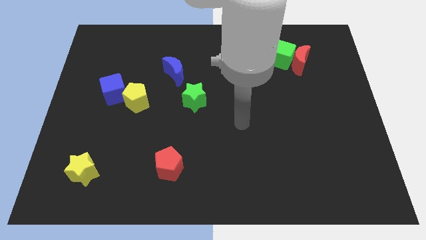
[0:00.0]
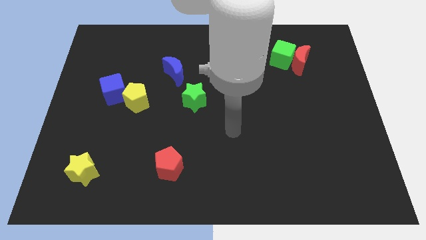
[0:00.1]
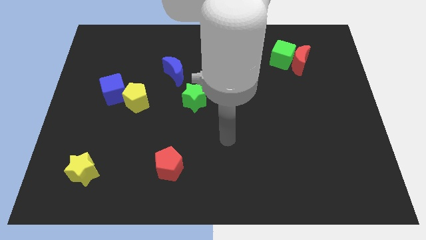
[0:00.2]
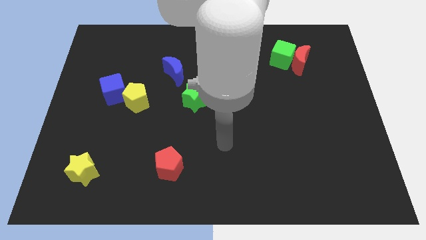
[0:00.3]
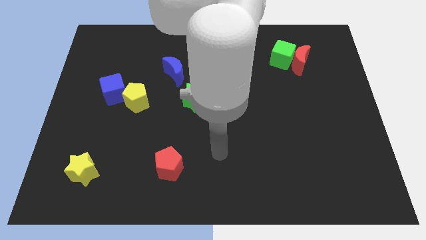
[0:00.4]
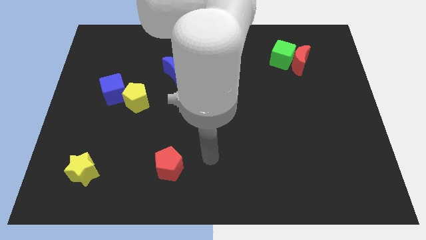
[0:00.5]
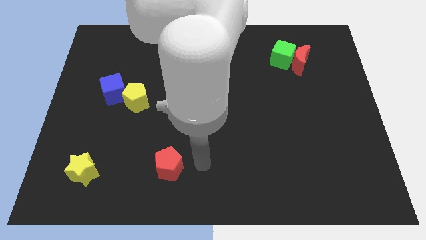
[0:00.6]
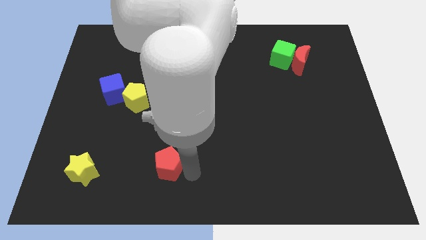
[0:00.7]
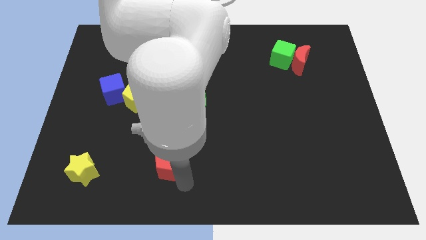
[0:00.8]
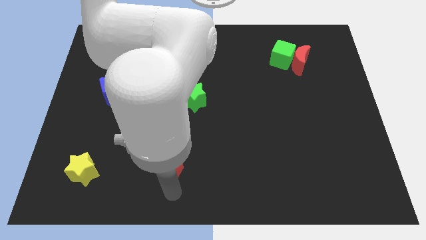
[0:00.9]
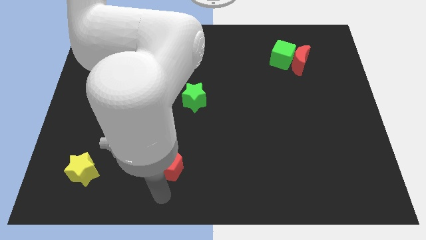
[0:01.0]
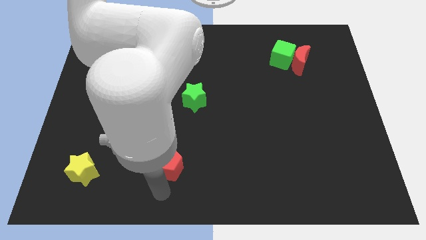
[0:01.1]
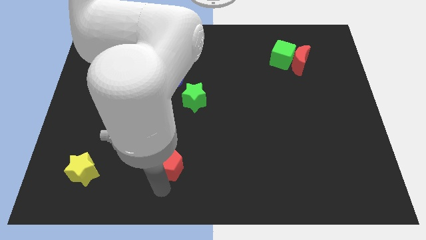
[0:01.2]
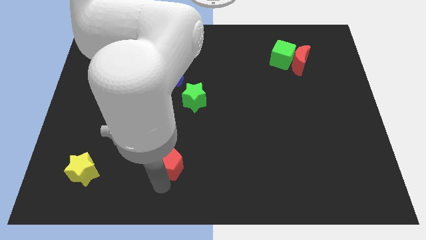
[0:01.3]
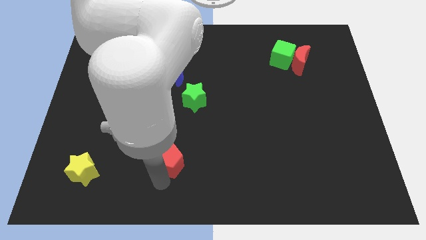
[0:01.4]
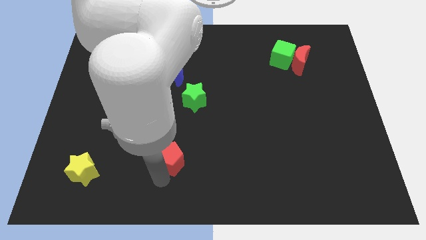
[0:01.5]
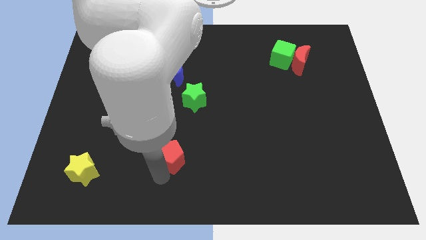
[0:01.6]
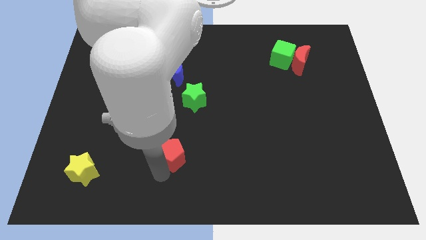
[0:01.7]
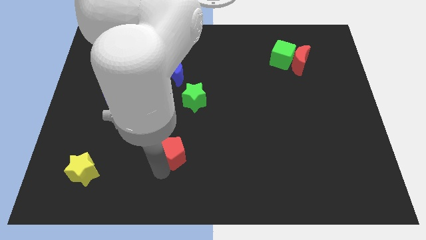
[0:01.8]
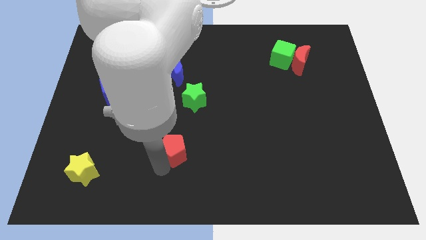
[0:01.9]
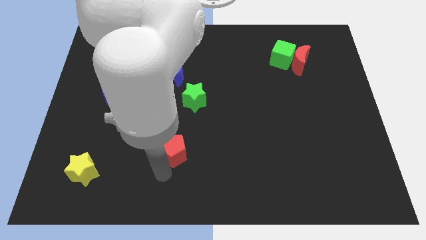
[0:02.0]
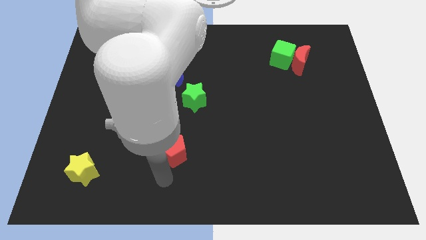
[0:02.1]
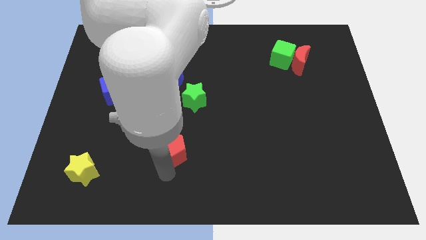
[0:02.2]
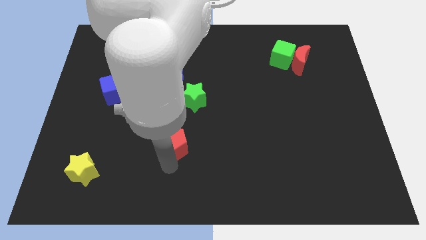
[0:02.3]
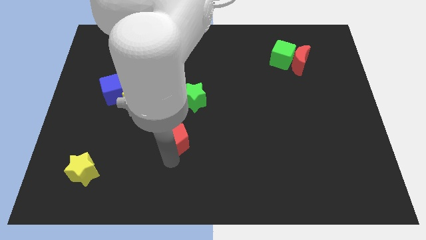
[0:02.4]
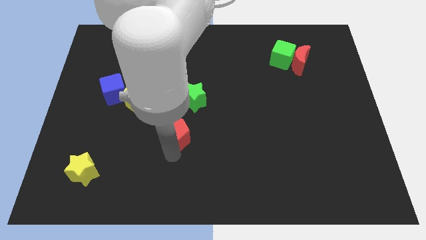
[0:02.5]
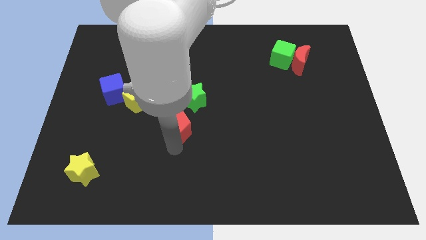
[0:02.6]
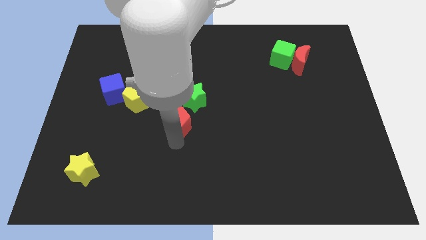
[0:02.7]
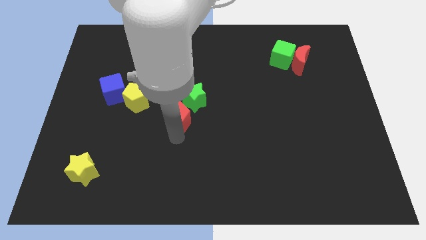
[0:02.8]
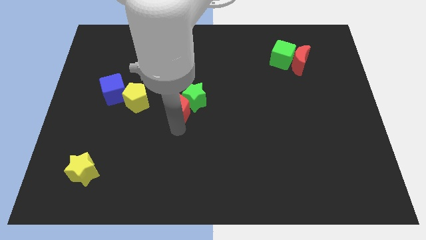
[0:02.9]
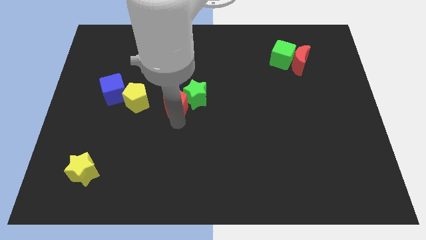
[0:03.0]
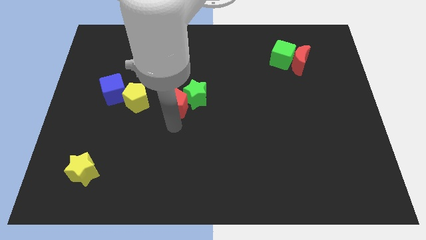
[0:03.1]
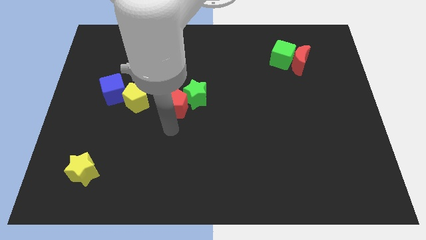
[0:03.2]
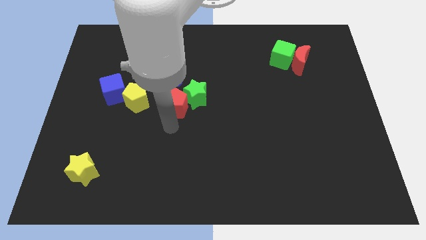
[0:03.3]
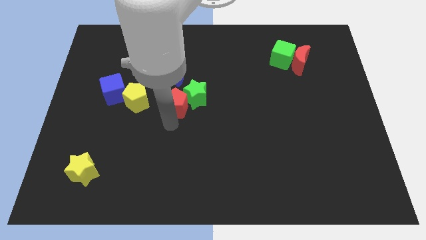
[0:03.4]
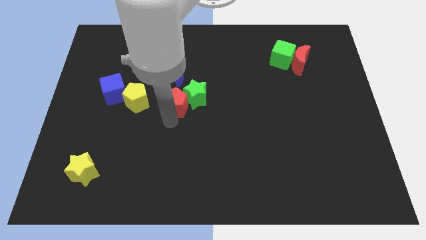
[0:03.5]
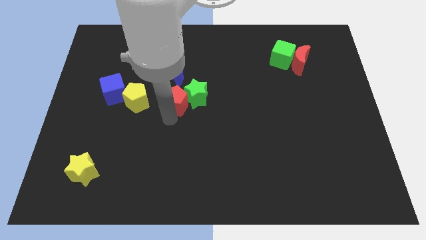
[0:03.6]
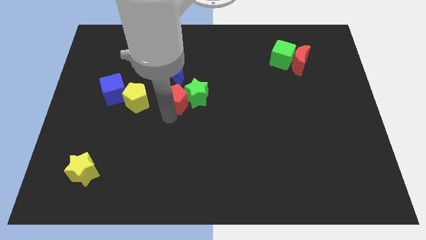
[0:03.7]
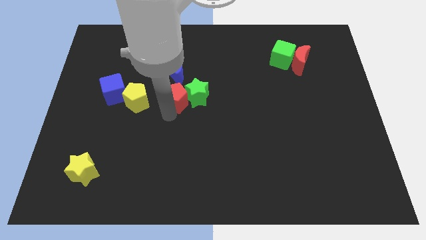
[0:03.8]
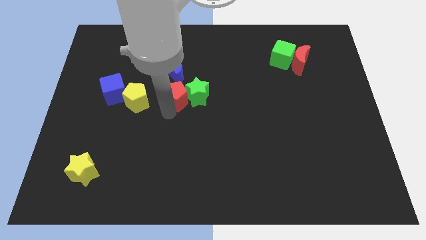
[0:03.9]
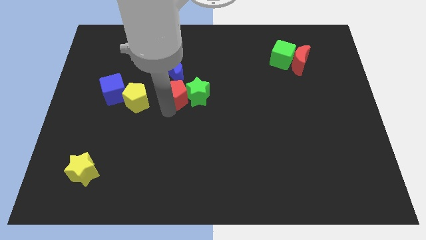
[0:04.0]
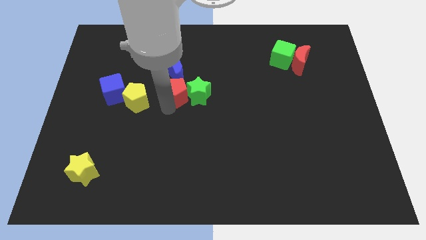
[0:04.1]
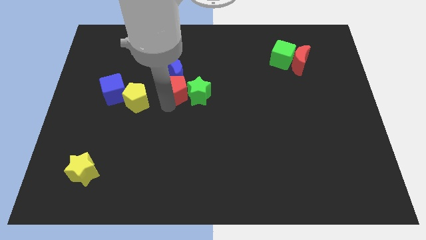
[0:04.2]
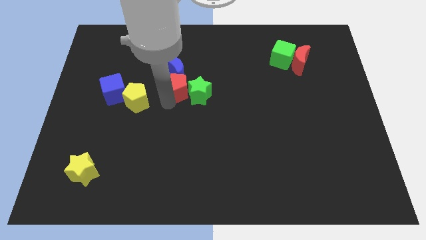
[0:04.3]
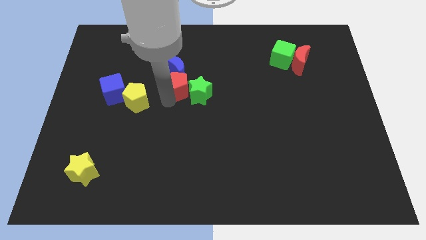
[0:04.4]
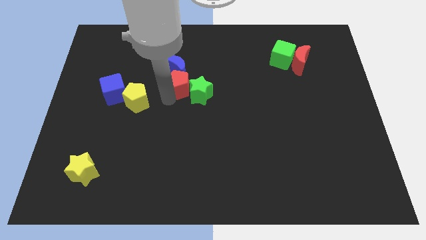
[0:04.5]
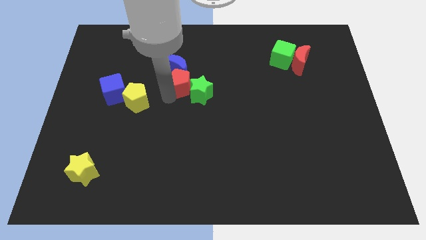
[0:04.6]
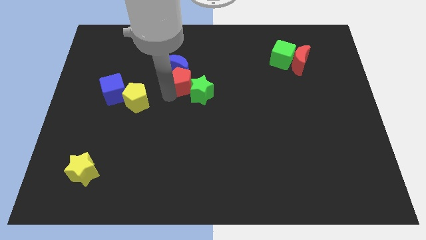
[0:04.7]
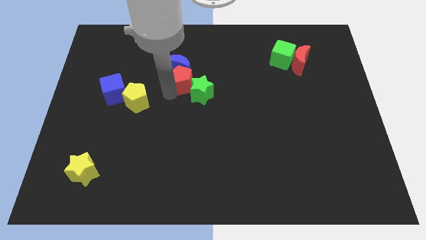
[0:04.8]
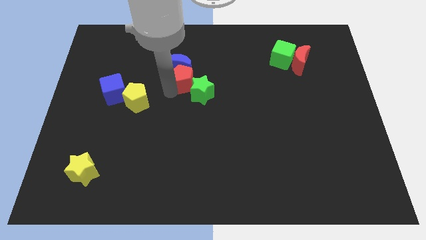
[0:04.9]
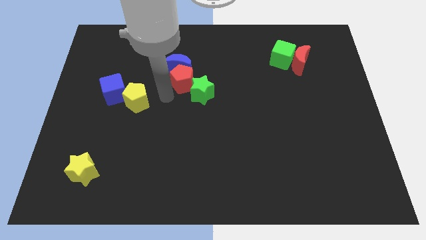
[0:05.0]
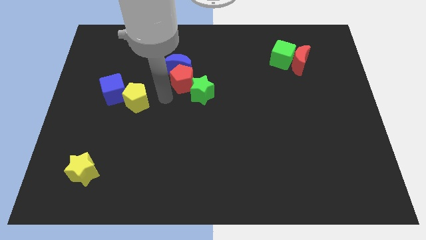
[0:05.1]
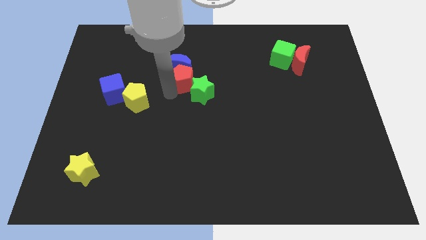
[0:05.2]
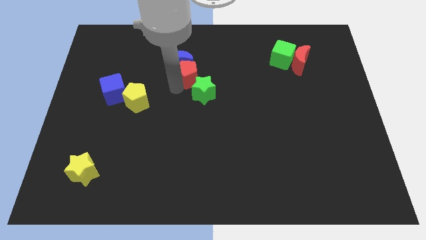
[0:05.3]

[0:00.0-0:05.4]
put the red pentagon to the top side of the green star

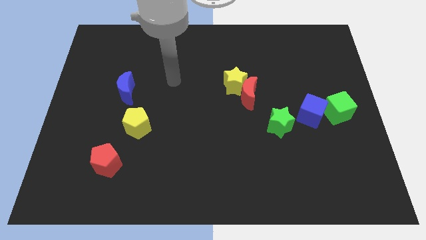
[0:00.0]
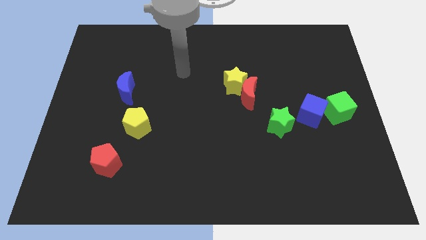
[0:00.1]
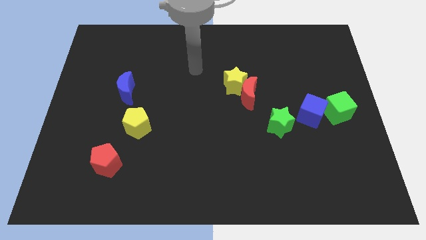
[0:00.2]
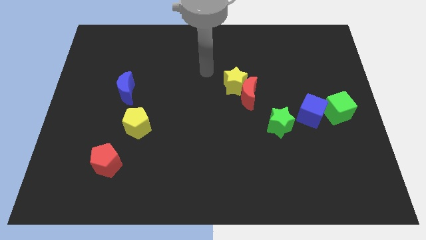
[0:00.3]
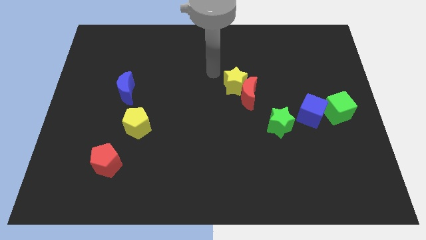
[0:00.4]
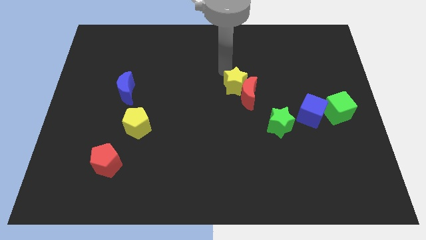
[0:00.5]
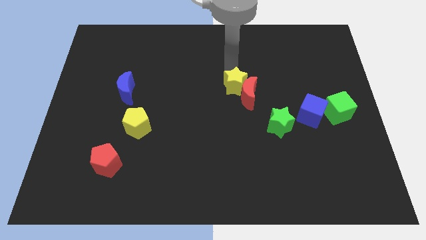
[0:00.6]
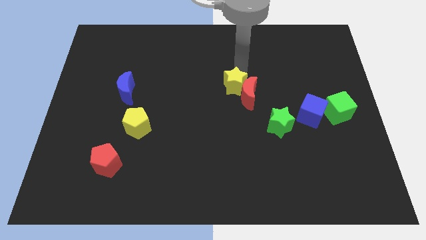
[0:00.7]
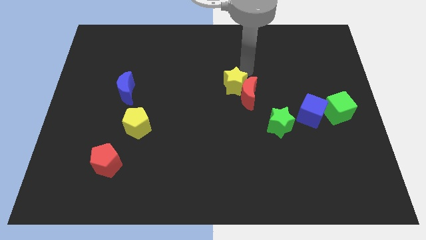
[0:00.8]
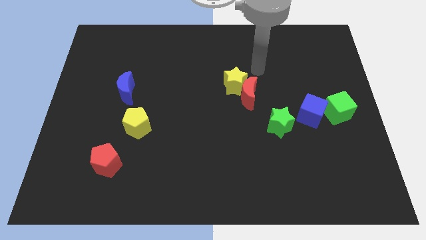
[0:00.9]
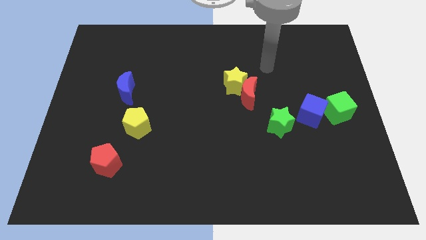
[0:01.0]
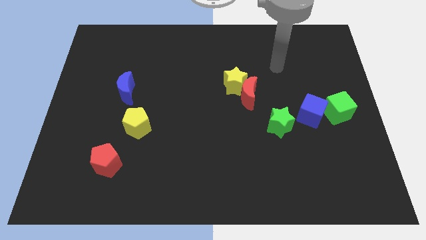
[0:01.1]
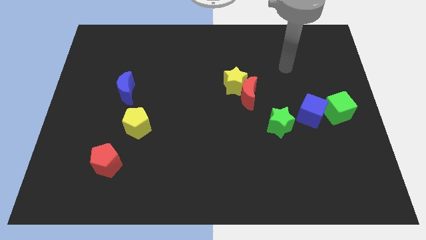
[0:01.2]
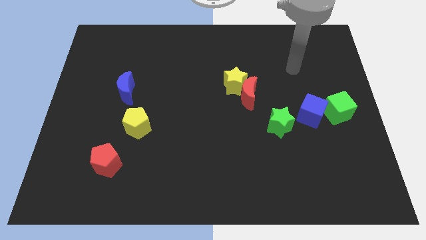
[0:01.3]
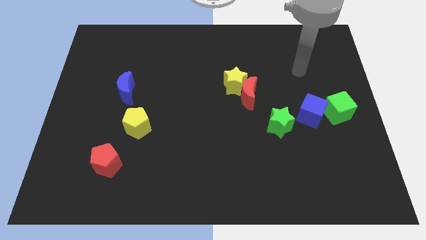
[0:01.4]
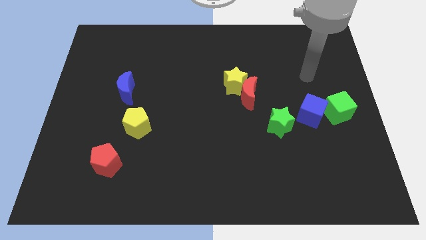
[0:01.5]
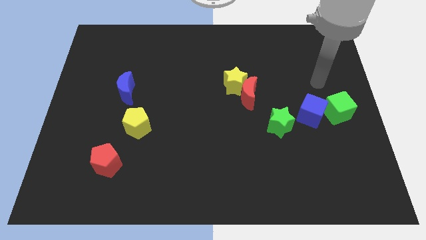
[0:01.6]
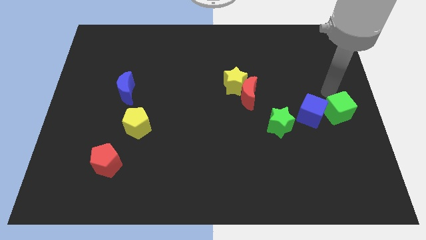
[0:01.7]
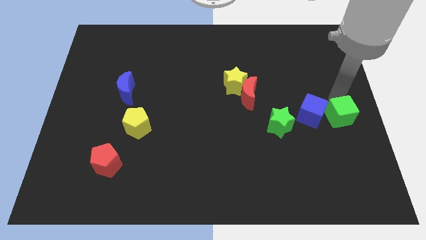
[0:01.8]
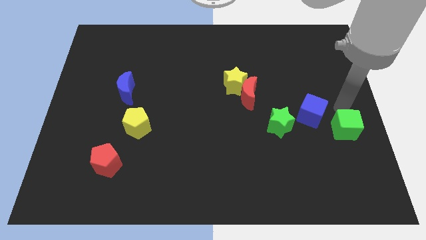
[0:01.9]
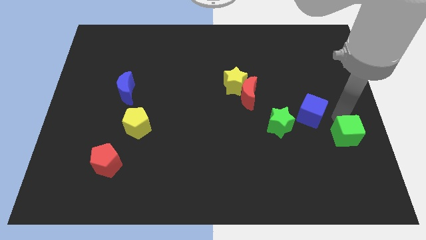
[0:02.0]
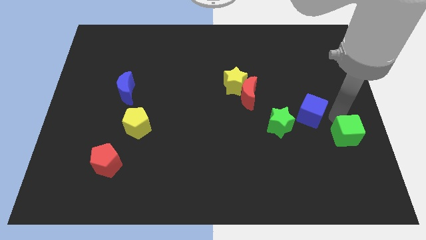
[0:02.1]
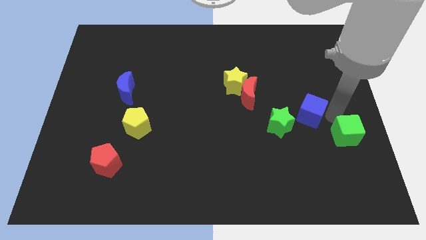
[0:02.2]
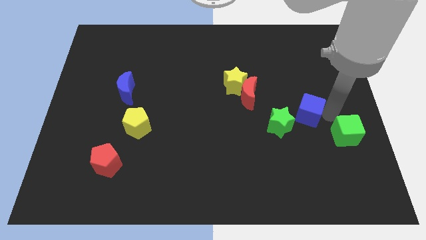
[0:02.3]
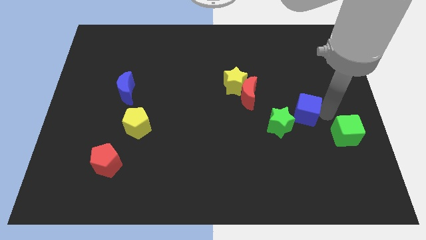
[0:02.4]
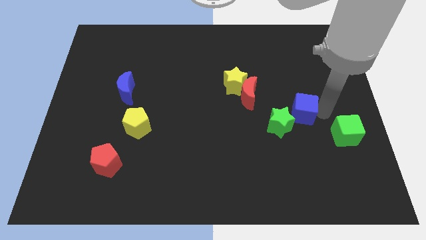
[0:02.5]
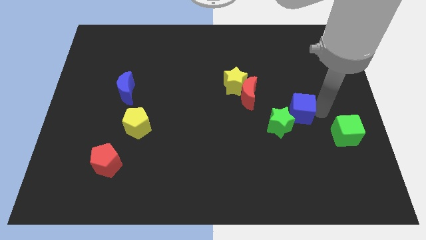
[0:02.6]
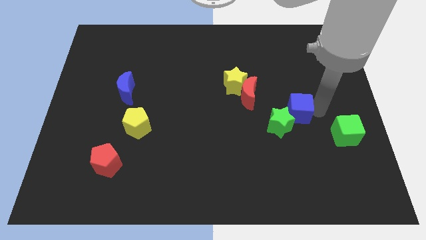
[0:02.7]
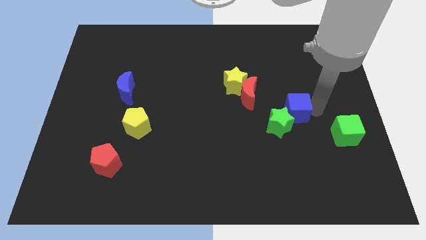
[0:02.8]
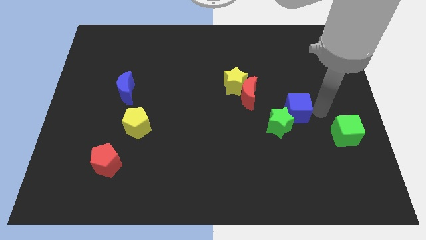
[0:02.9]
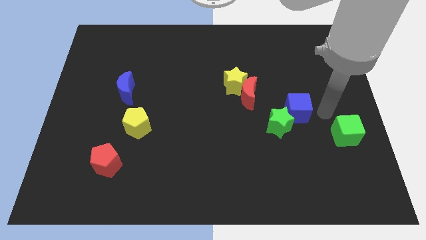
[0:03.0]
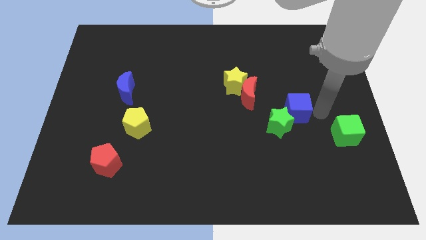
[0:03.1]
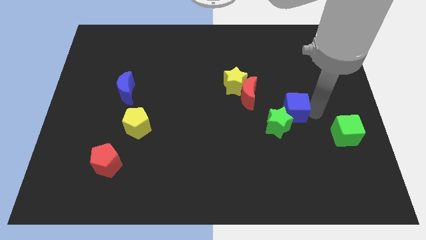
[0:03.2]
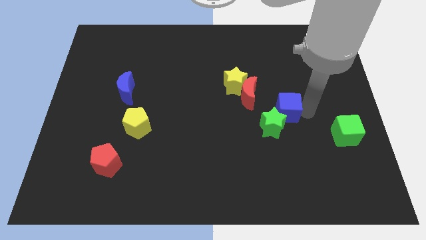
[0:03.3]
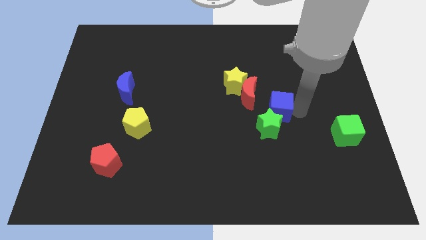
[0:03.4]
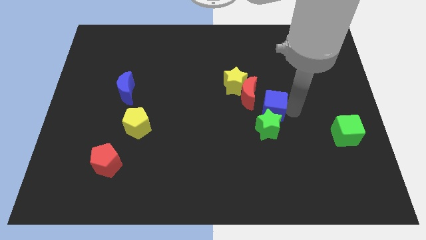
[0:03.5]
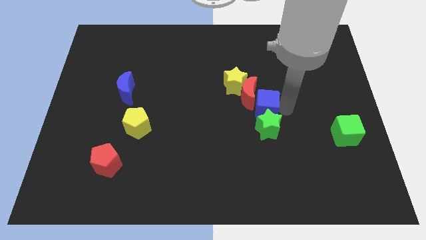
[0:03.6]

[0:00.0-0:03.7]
move the blue cube below the red moon
